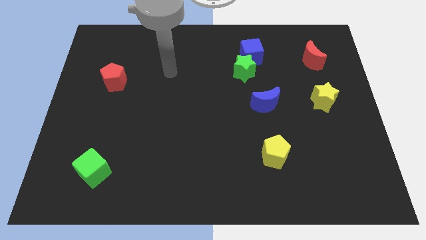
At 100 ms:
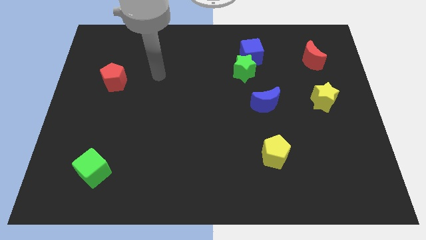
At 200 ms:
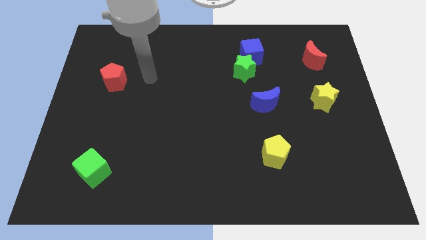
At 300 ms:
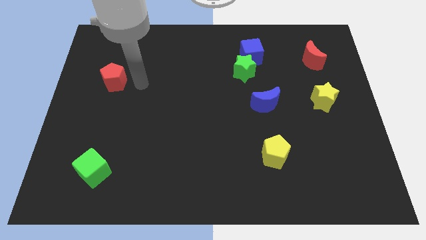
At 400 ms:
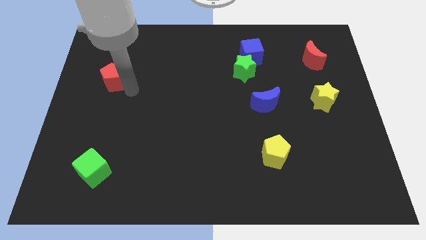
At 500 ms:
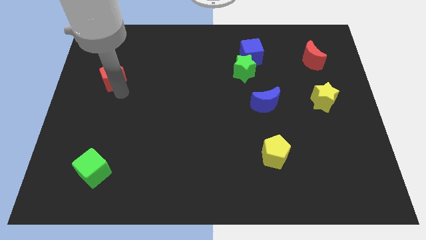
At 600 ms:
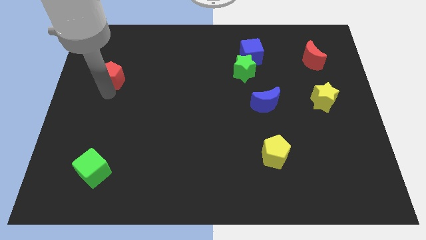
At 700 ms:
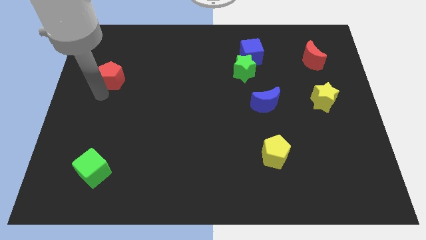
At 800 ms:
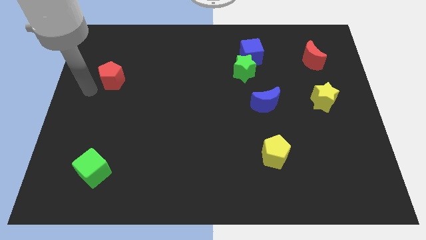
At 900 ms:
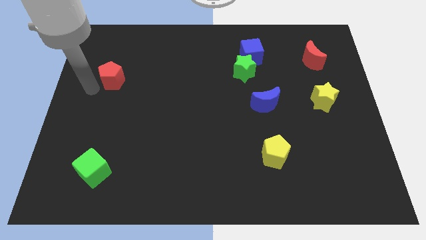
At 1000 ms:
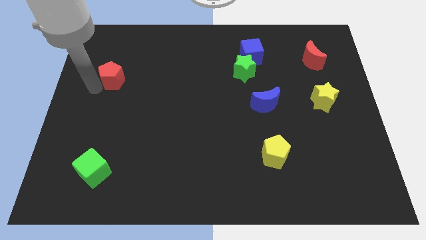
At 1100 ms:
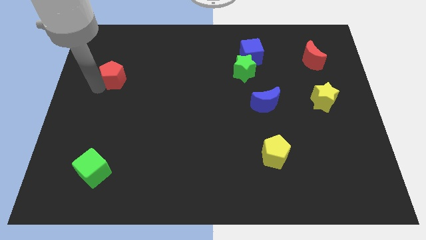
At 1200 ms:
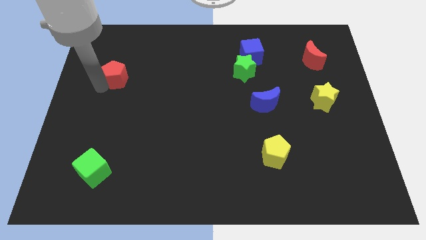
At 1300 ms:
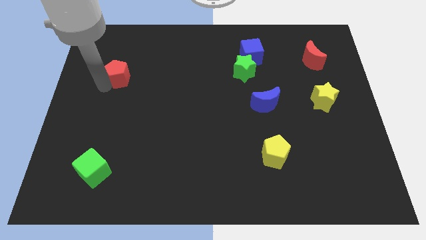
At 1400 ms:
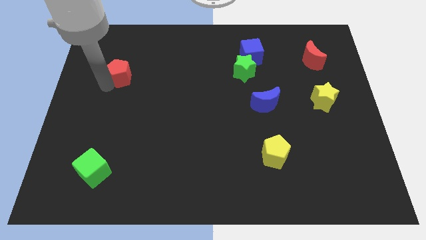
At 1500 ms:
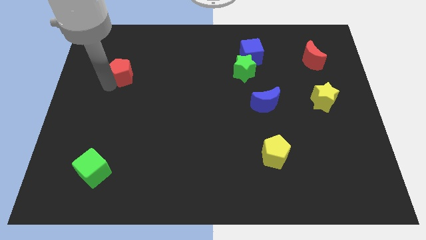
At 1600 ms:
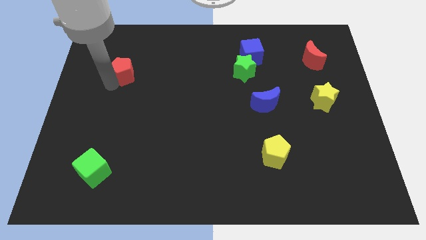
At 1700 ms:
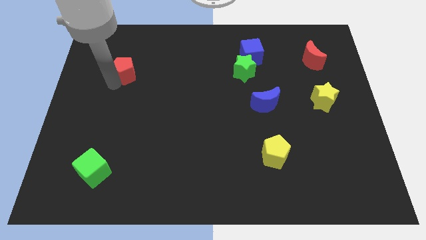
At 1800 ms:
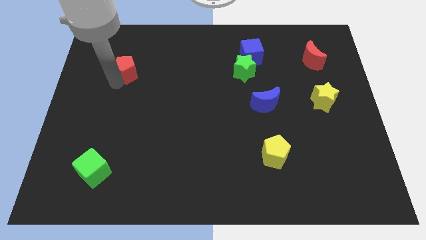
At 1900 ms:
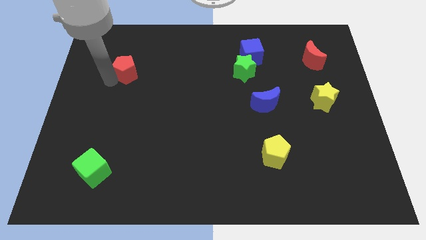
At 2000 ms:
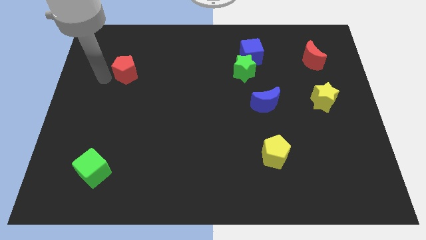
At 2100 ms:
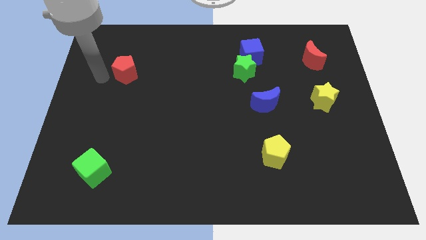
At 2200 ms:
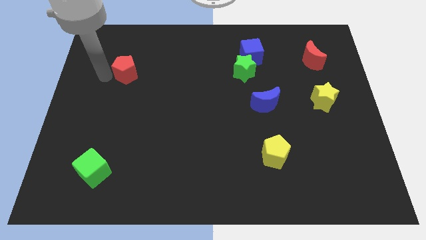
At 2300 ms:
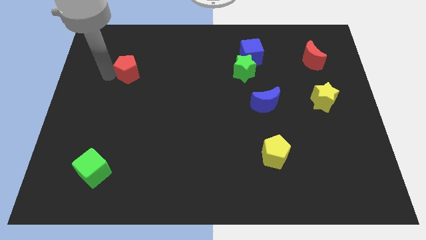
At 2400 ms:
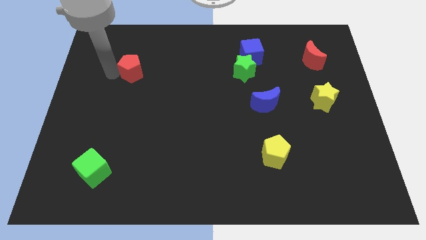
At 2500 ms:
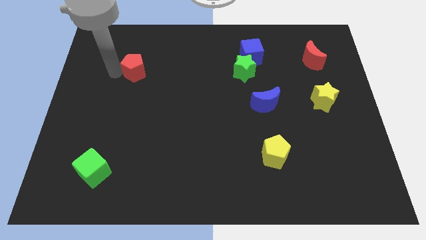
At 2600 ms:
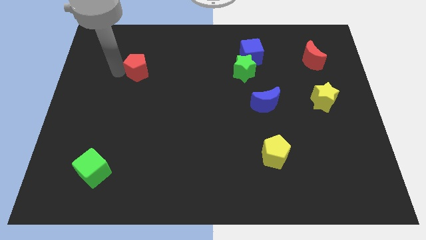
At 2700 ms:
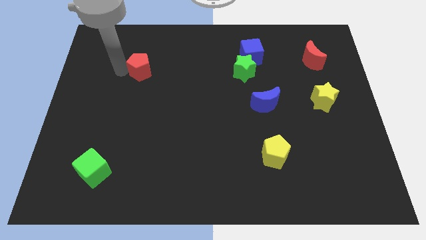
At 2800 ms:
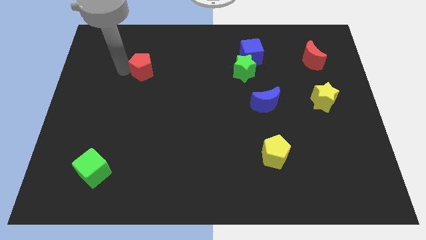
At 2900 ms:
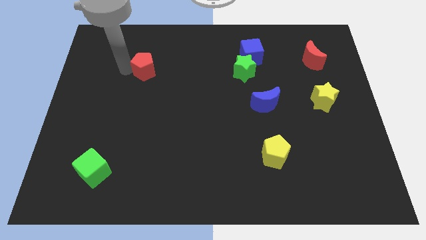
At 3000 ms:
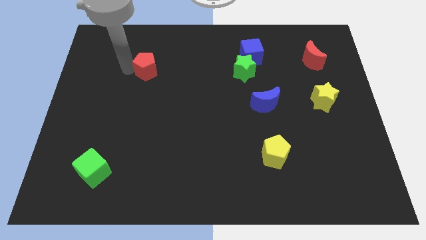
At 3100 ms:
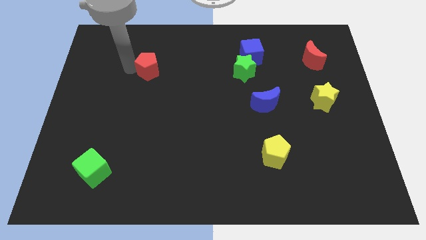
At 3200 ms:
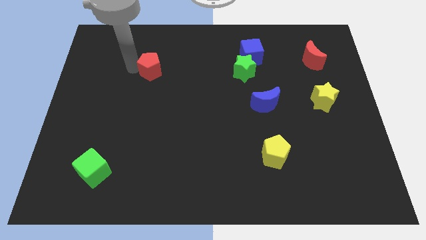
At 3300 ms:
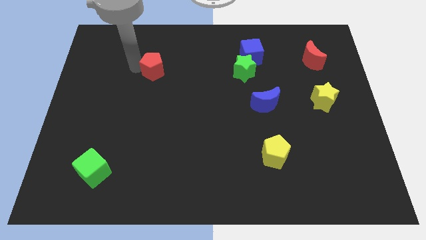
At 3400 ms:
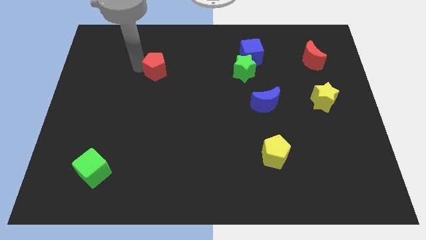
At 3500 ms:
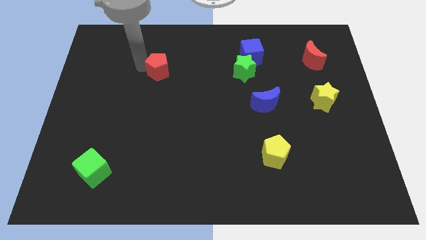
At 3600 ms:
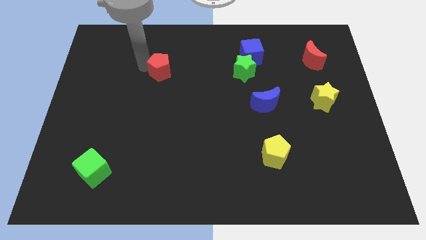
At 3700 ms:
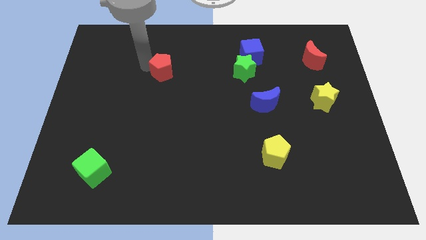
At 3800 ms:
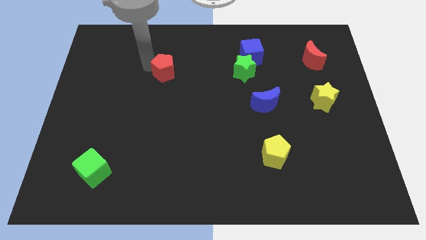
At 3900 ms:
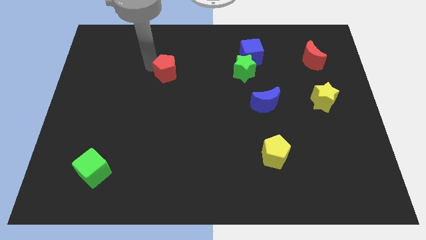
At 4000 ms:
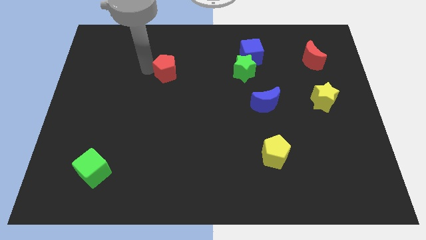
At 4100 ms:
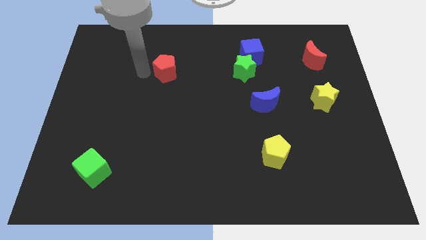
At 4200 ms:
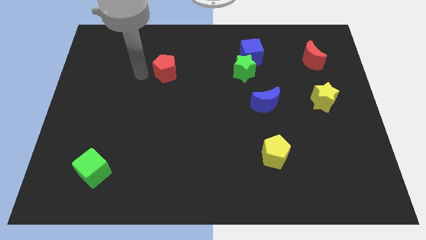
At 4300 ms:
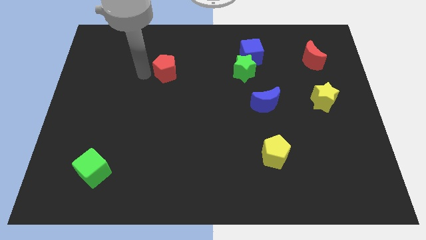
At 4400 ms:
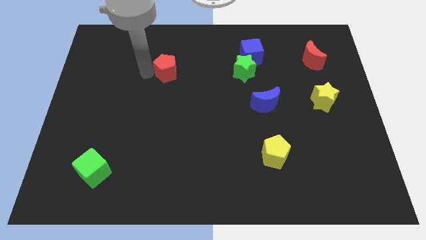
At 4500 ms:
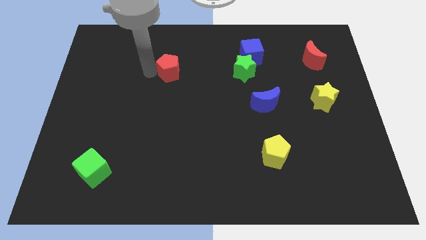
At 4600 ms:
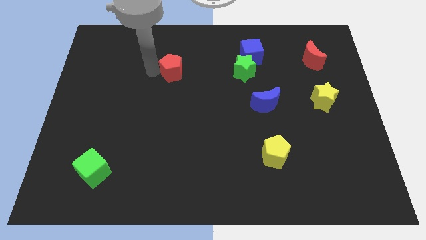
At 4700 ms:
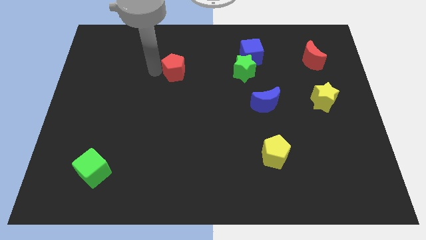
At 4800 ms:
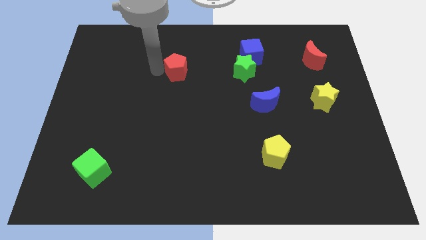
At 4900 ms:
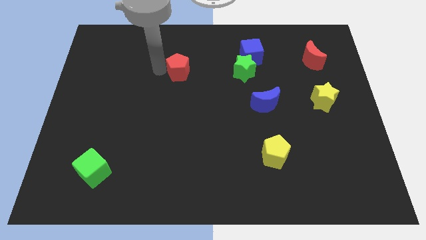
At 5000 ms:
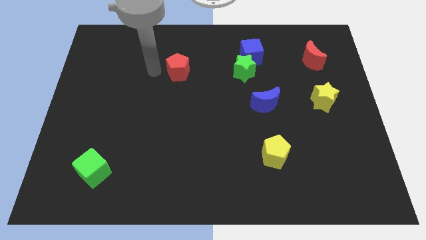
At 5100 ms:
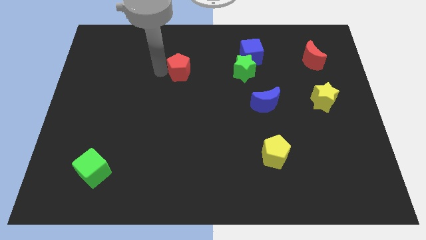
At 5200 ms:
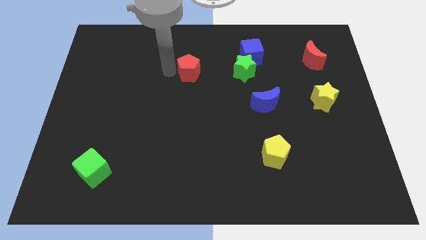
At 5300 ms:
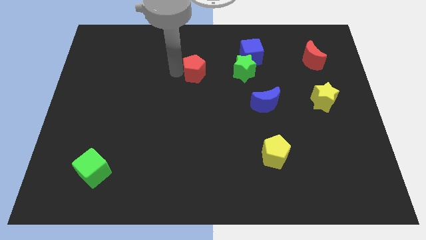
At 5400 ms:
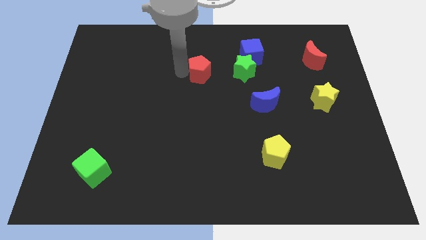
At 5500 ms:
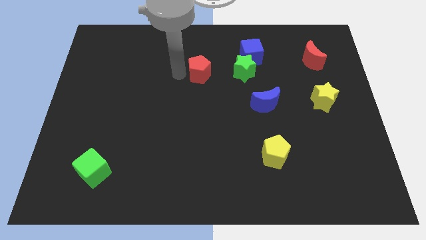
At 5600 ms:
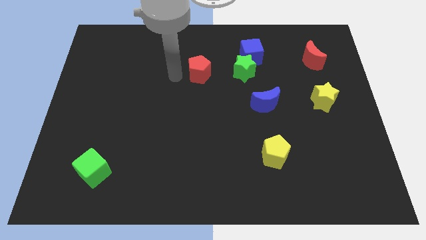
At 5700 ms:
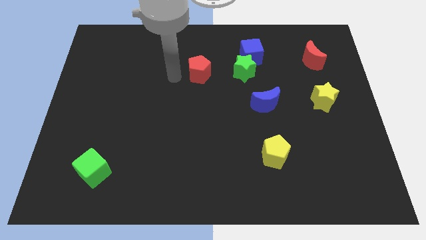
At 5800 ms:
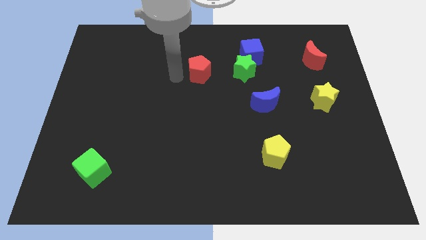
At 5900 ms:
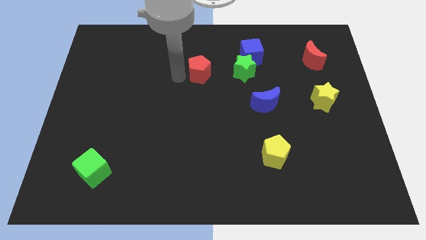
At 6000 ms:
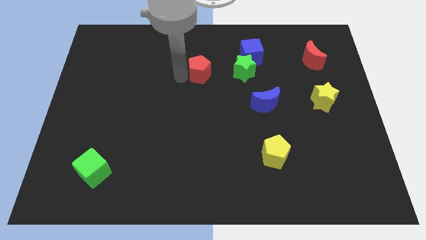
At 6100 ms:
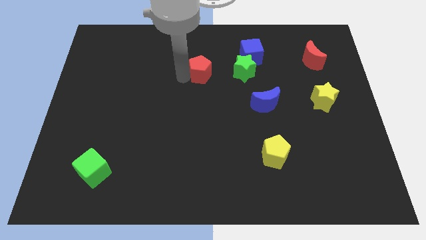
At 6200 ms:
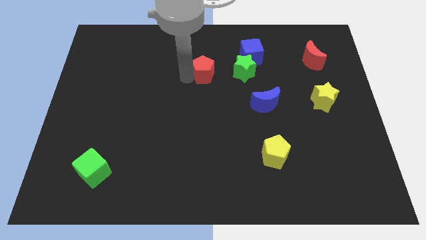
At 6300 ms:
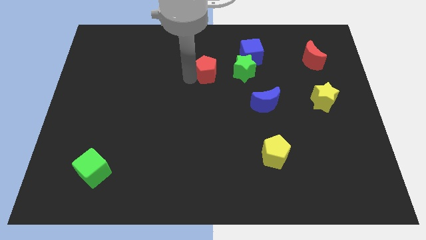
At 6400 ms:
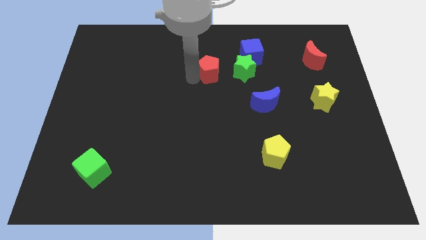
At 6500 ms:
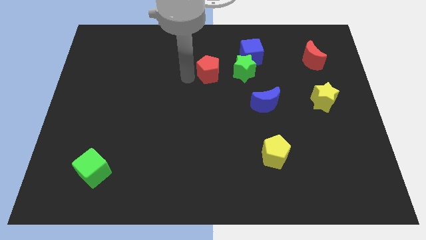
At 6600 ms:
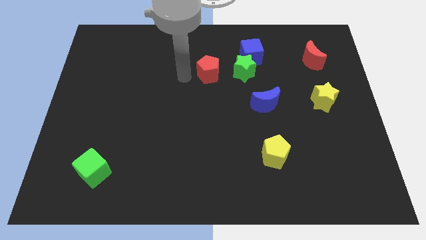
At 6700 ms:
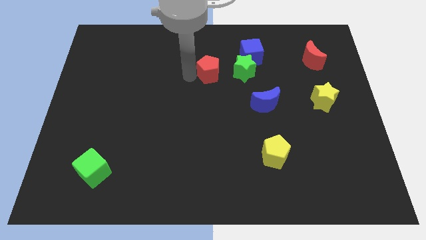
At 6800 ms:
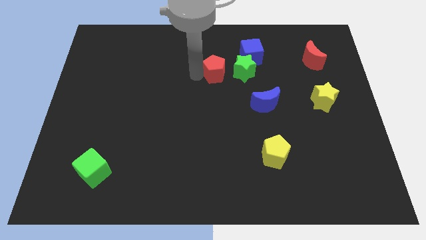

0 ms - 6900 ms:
slide the red pentagon to the bottom left side of the blue cube

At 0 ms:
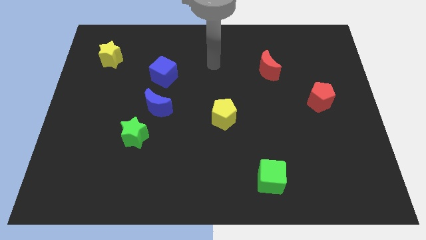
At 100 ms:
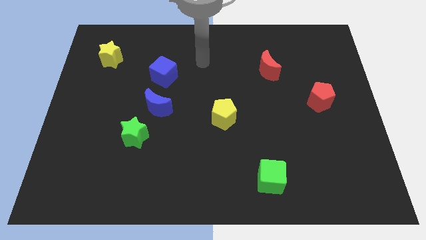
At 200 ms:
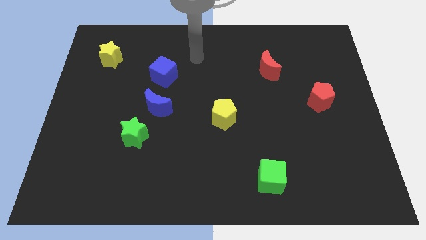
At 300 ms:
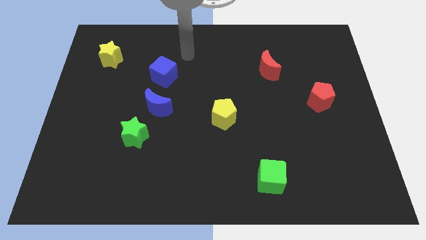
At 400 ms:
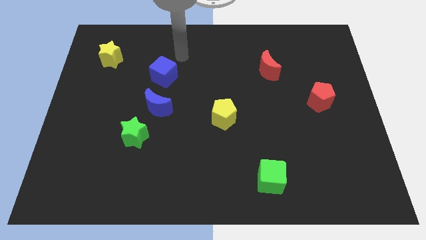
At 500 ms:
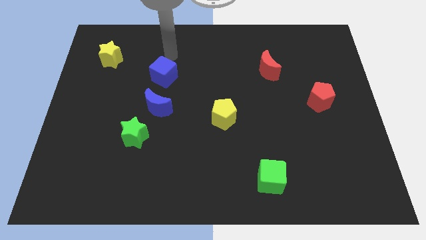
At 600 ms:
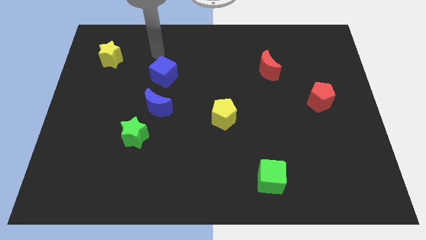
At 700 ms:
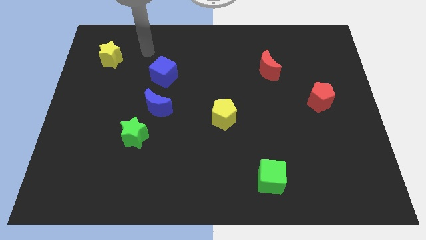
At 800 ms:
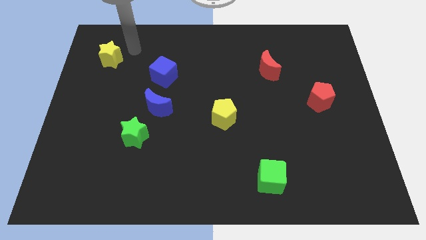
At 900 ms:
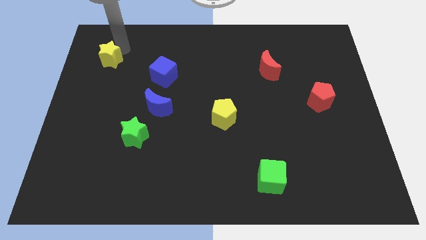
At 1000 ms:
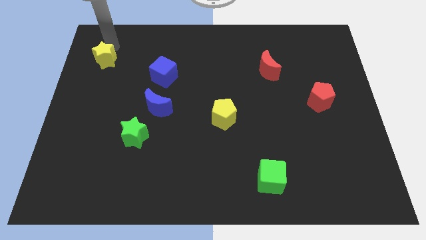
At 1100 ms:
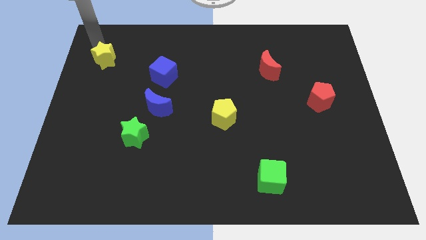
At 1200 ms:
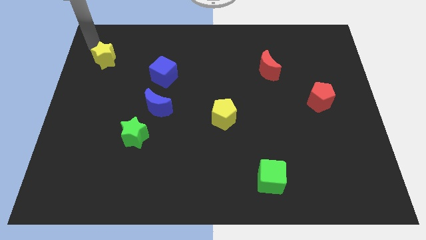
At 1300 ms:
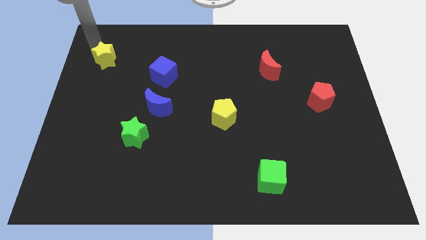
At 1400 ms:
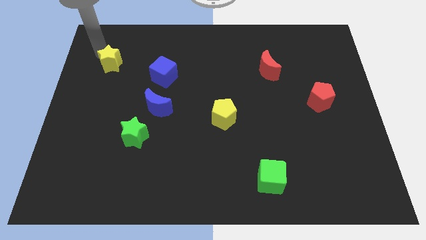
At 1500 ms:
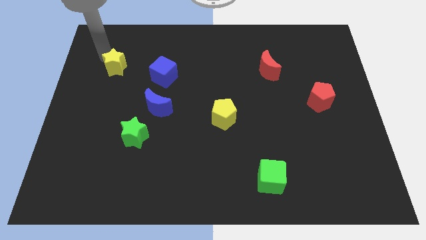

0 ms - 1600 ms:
put the yellow star to the left of the blue cube
